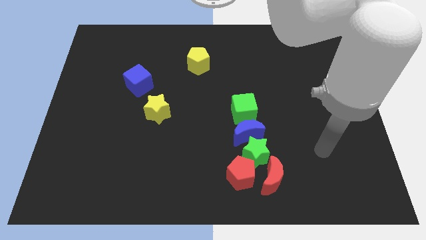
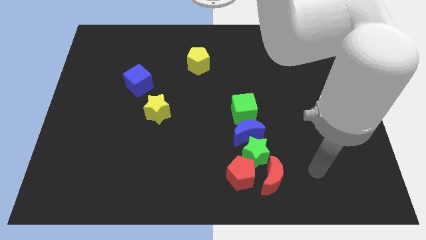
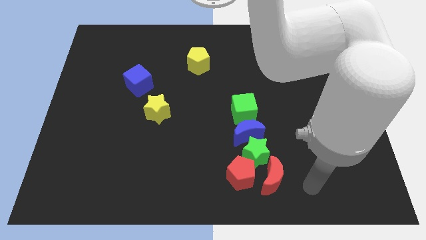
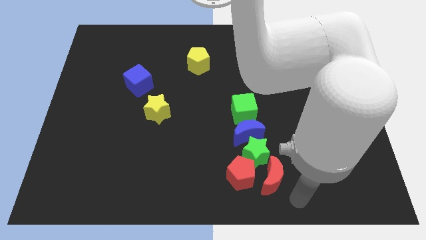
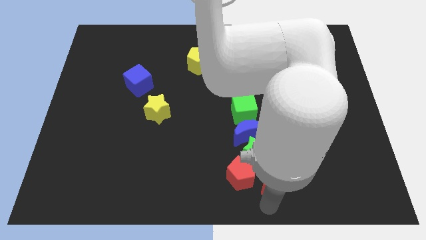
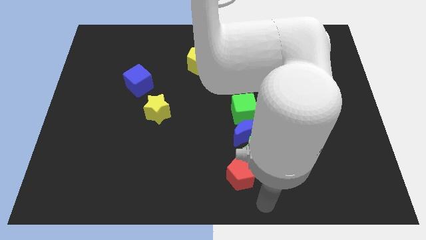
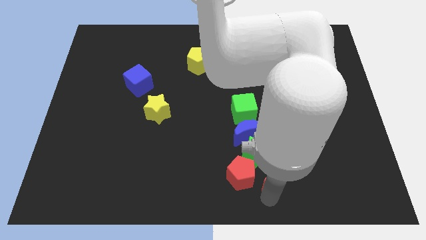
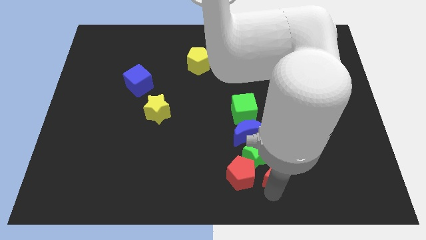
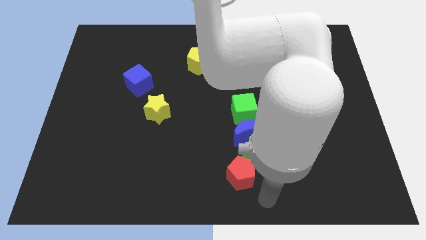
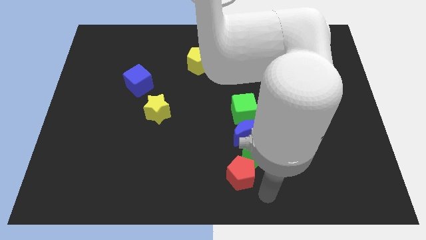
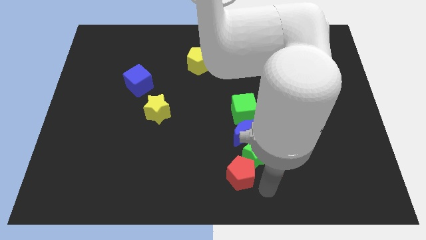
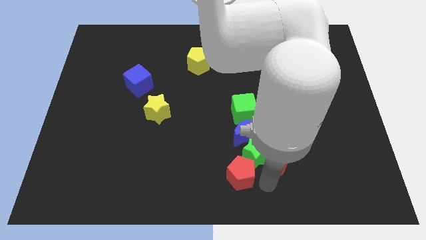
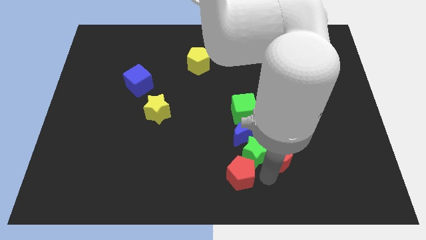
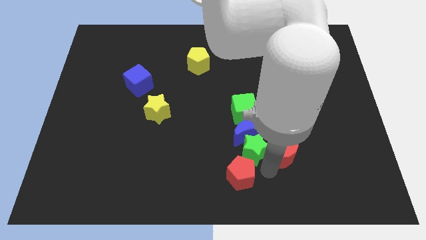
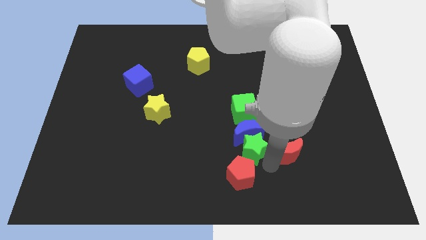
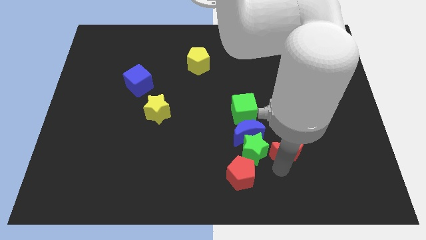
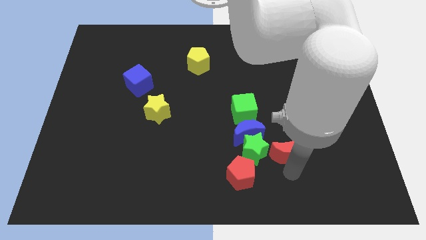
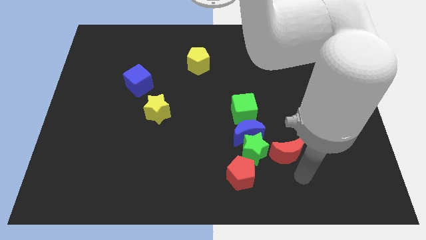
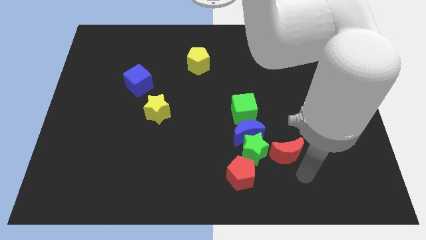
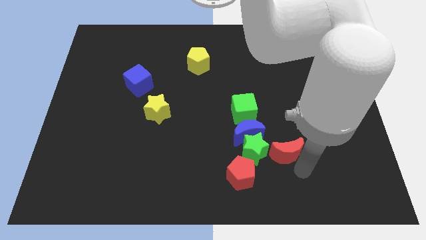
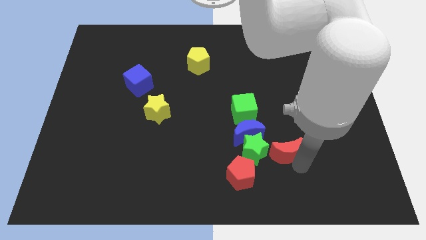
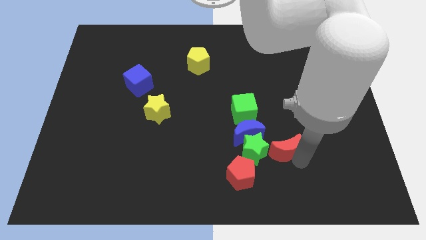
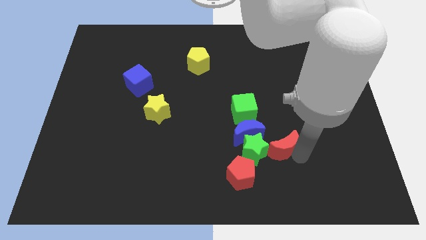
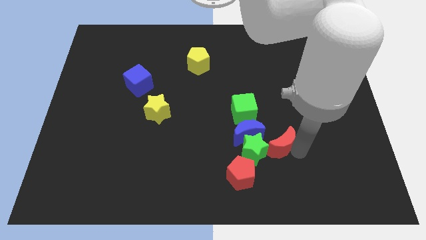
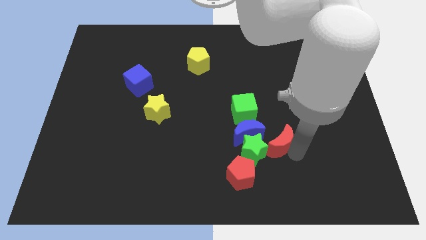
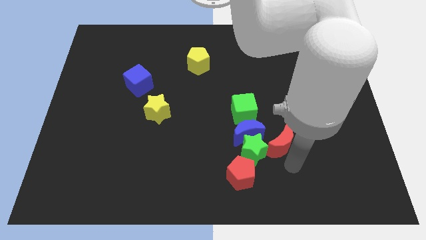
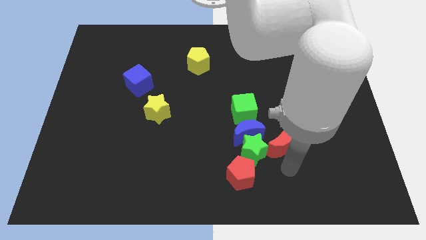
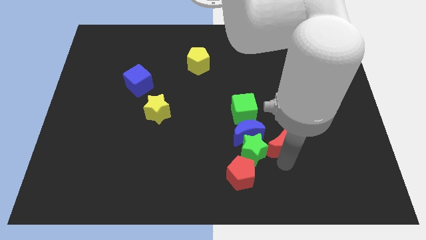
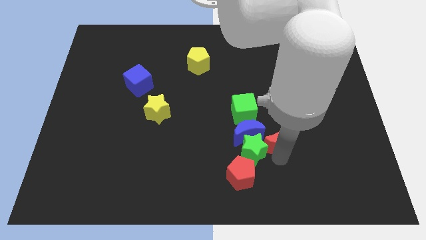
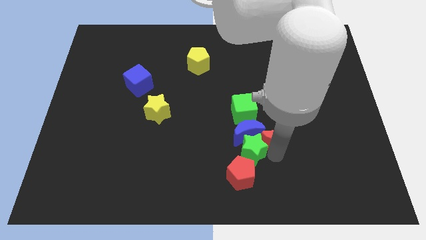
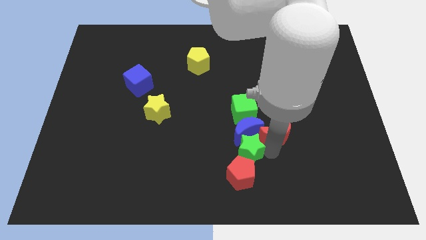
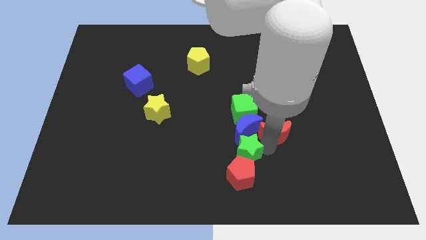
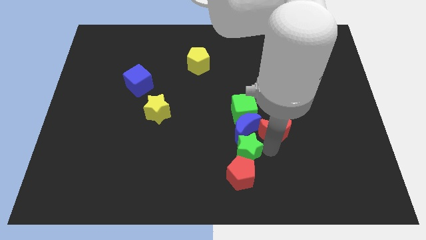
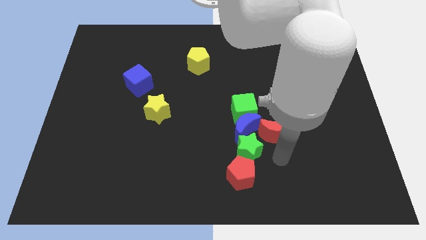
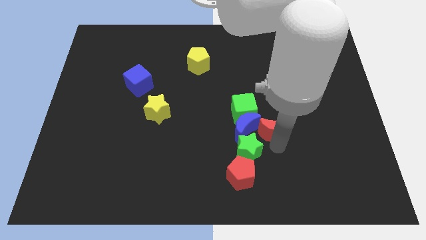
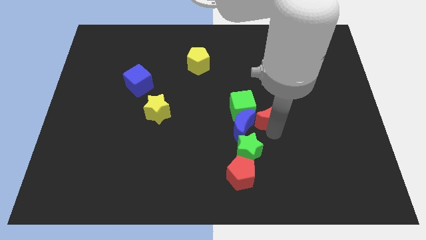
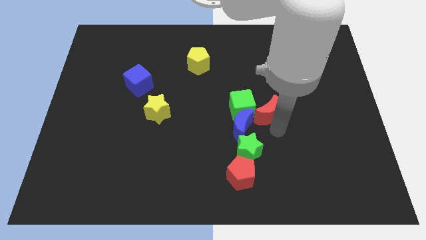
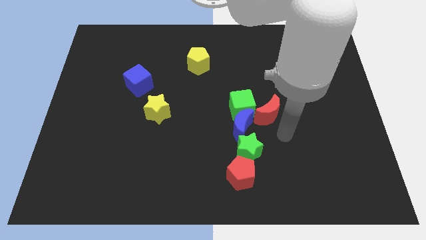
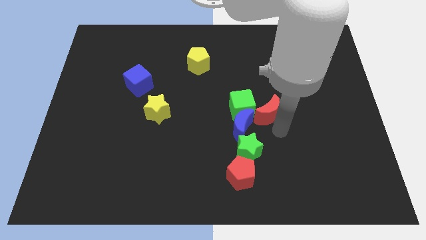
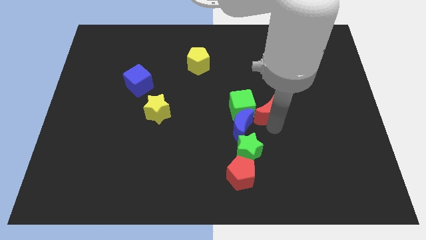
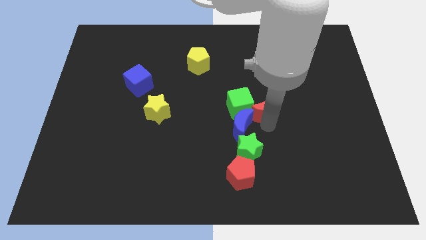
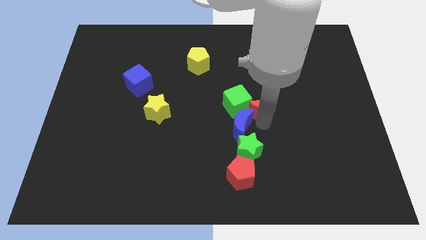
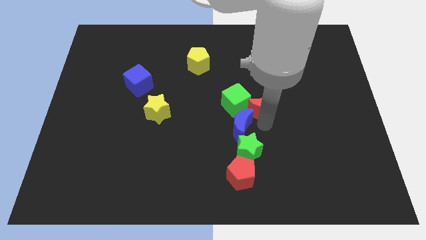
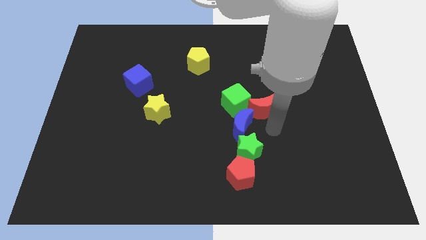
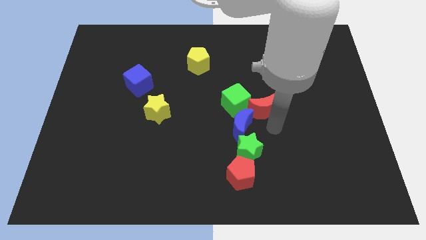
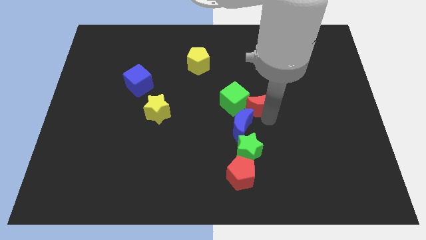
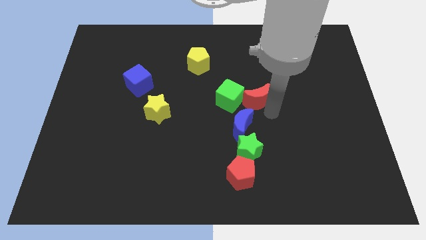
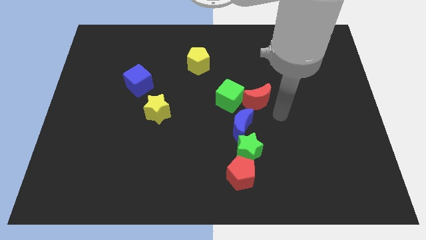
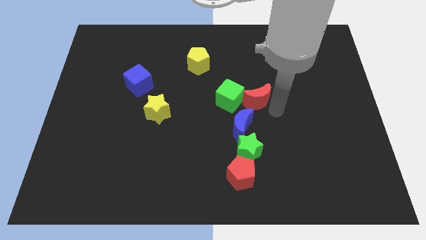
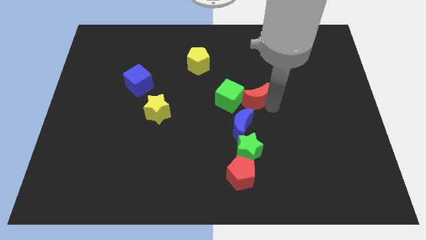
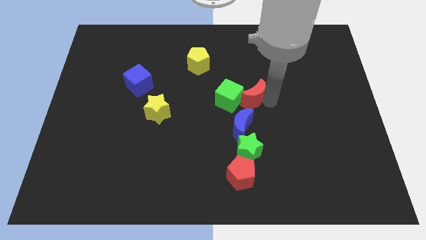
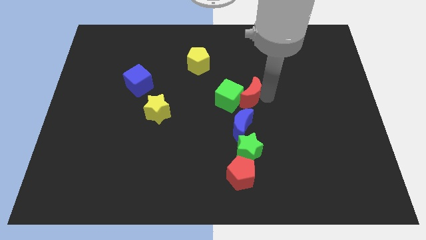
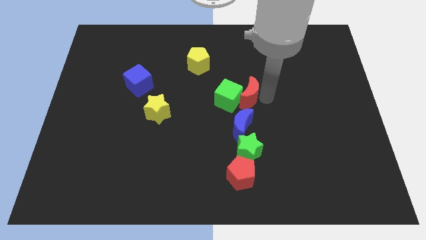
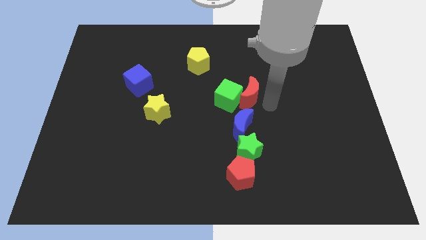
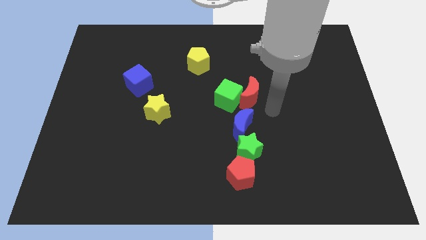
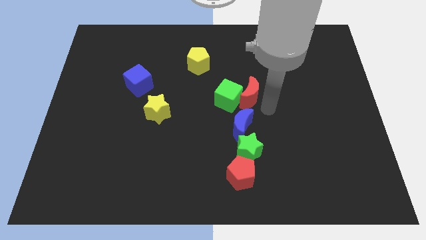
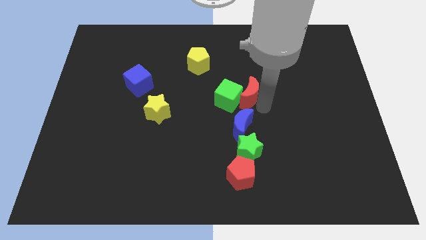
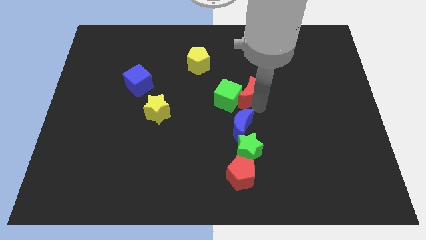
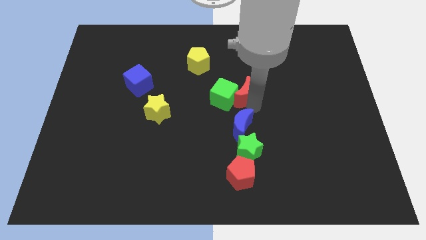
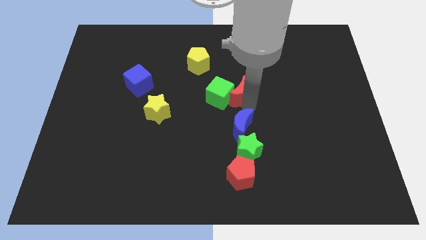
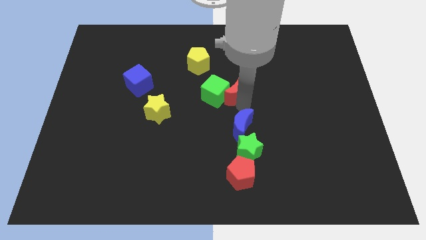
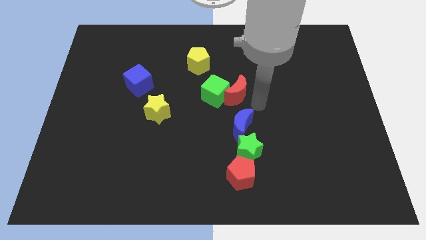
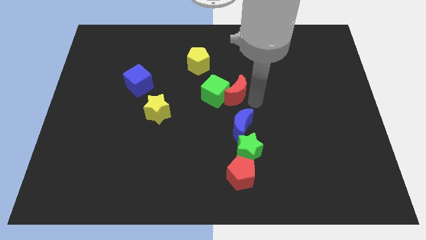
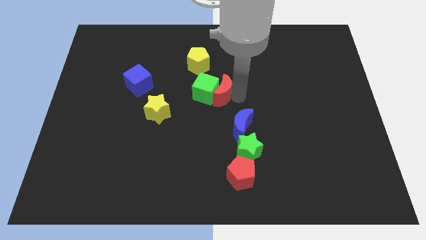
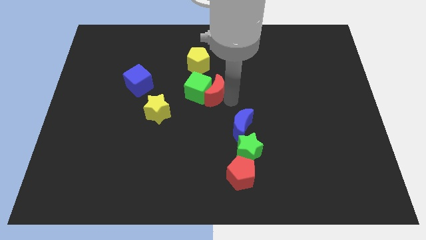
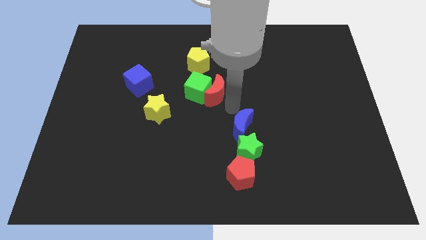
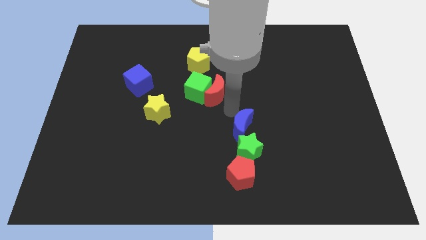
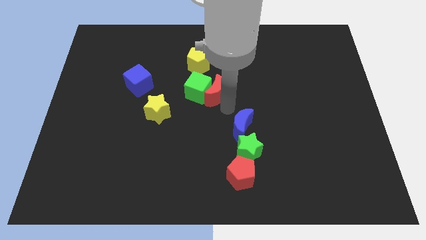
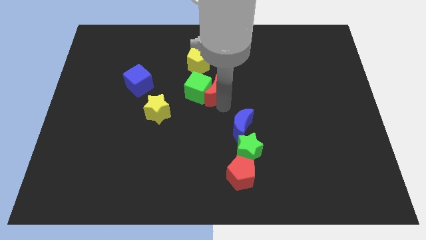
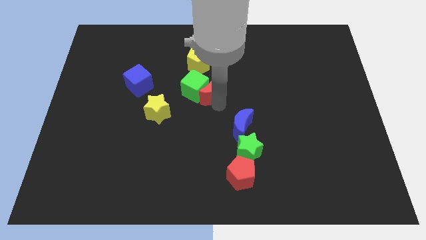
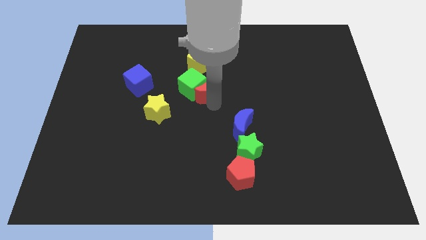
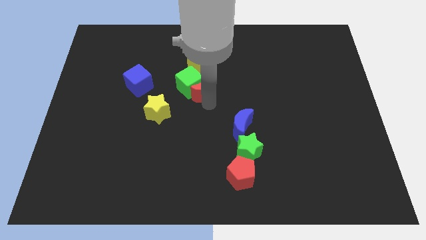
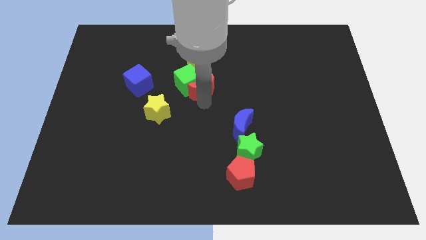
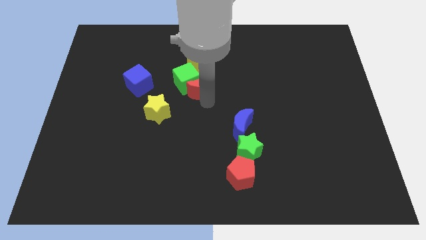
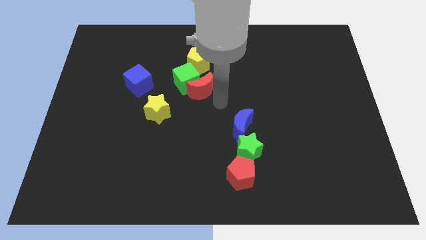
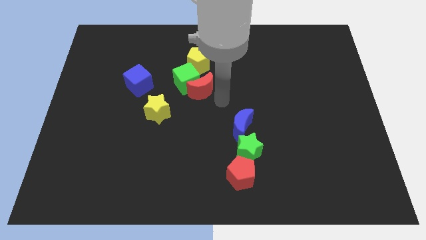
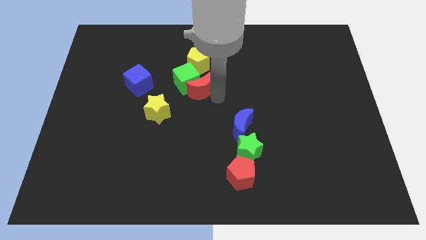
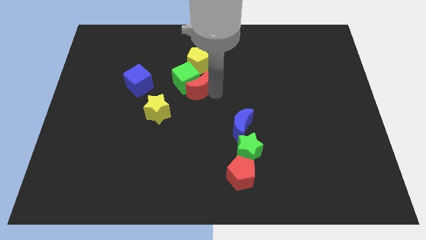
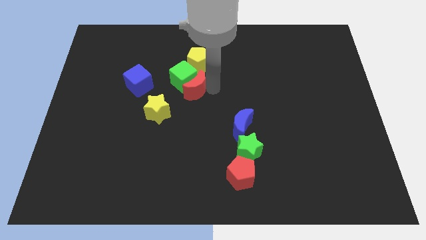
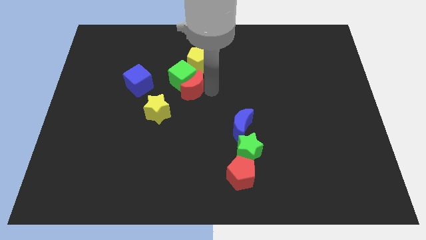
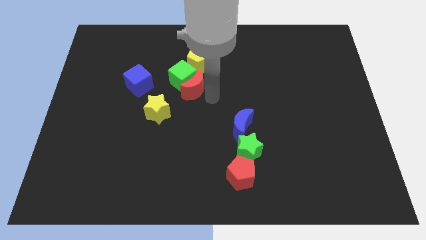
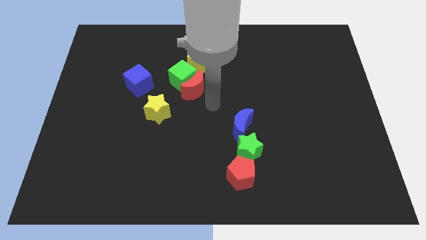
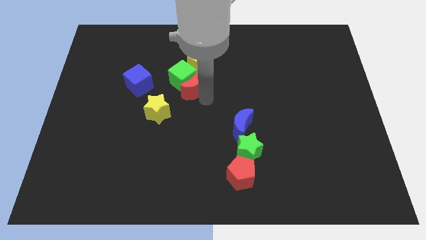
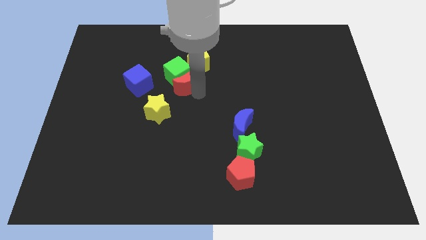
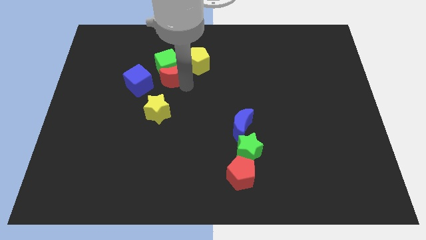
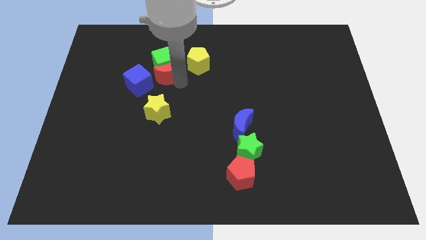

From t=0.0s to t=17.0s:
put the red moon to the left of the yellow pentagon
